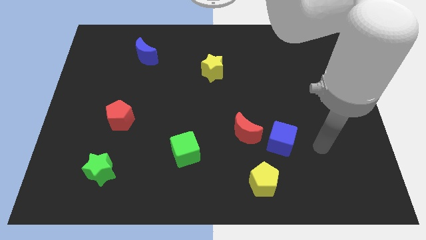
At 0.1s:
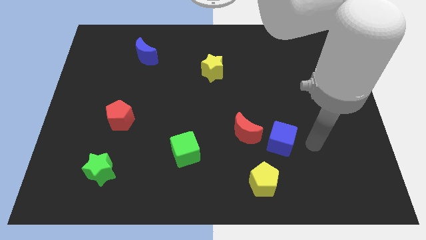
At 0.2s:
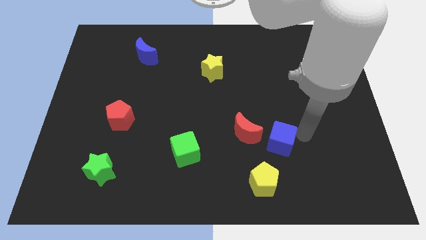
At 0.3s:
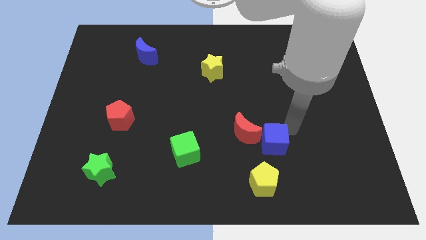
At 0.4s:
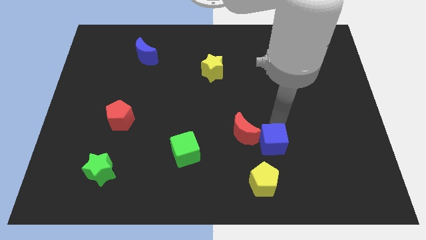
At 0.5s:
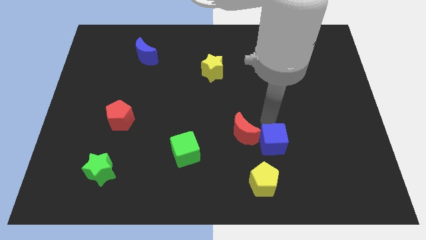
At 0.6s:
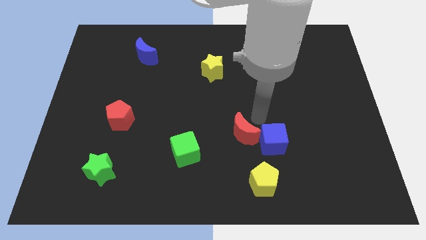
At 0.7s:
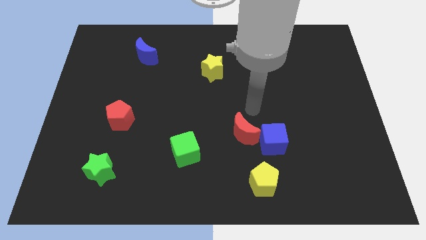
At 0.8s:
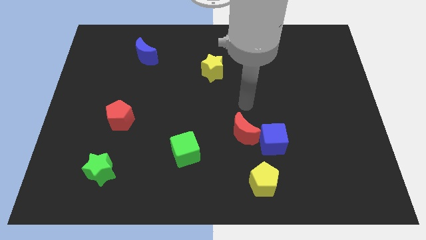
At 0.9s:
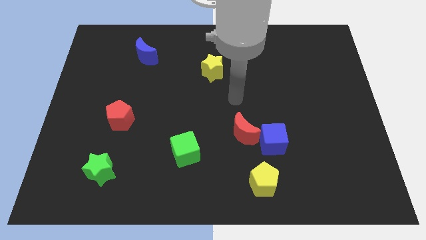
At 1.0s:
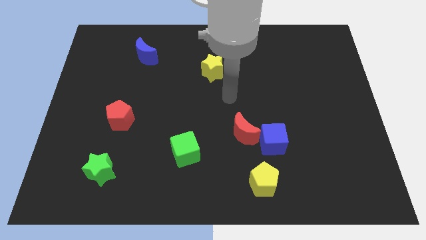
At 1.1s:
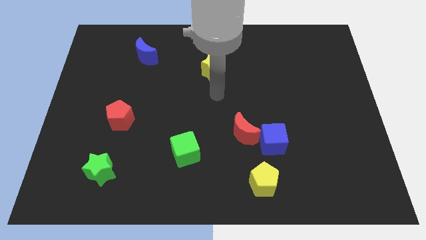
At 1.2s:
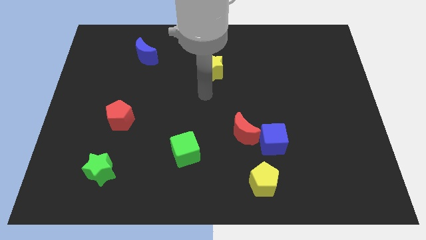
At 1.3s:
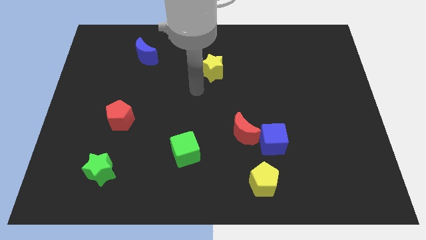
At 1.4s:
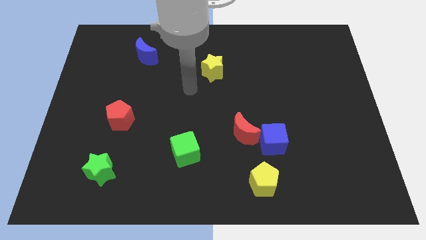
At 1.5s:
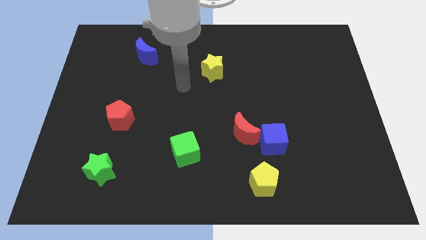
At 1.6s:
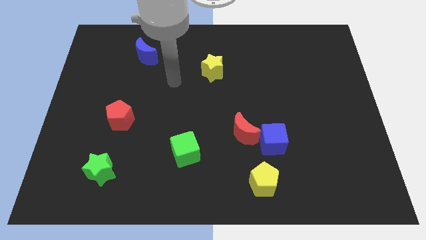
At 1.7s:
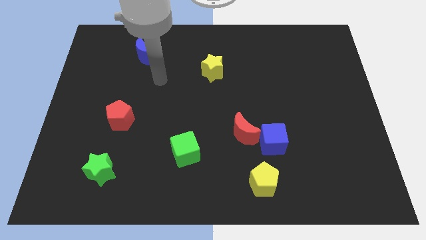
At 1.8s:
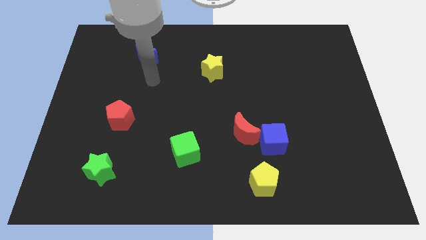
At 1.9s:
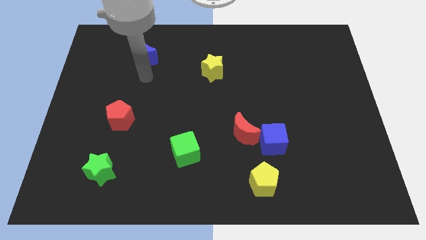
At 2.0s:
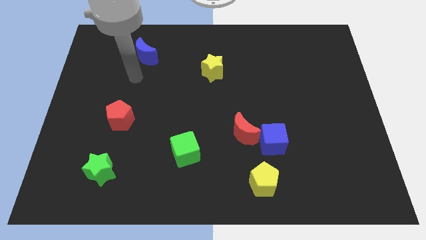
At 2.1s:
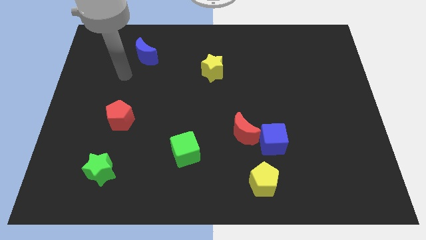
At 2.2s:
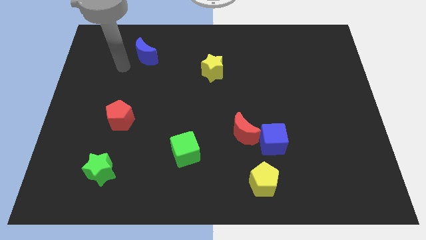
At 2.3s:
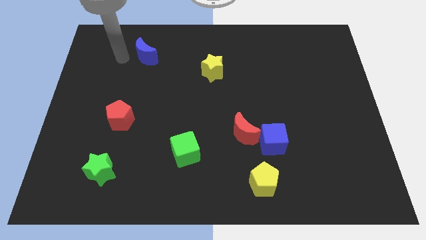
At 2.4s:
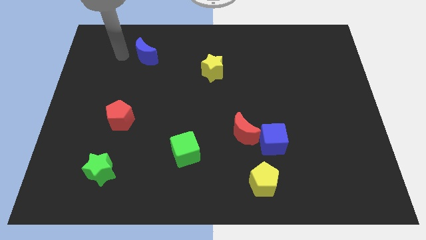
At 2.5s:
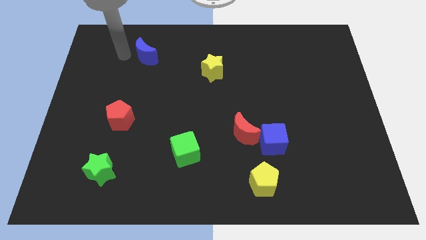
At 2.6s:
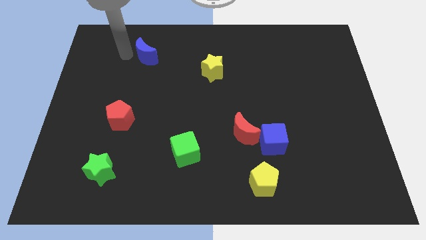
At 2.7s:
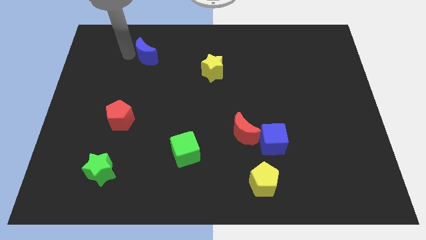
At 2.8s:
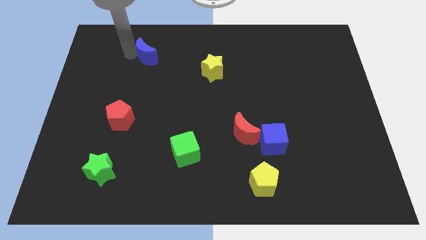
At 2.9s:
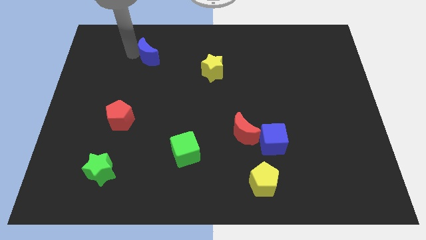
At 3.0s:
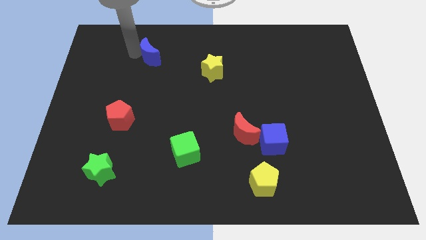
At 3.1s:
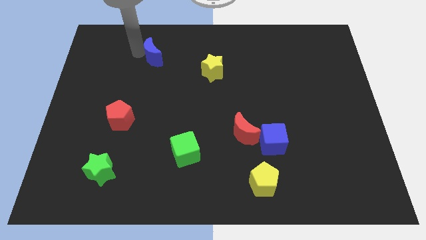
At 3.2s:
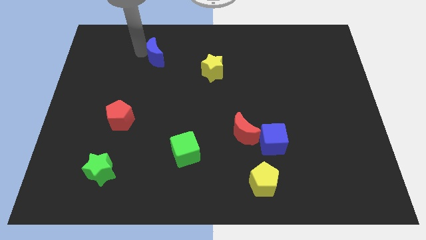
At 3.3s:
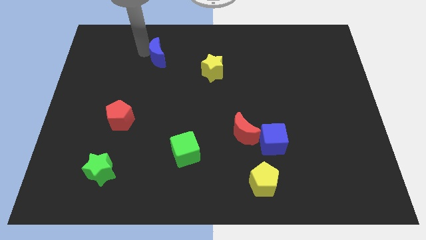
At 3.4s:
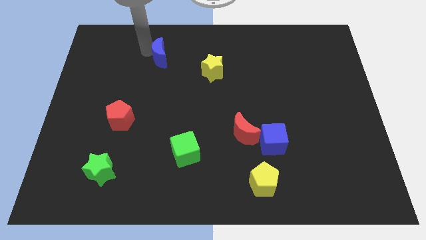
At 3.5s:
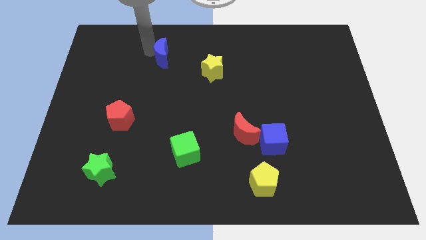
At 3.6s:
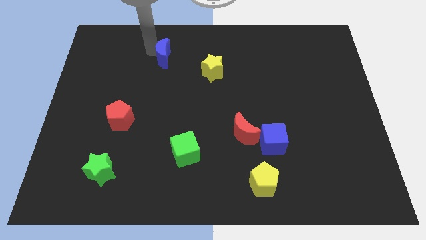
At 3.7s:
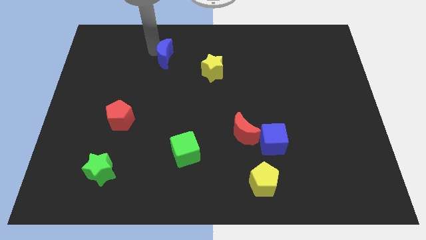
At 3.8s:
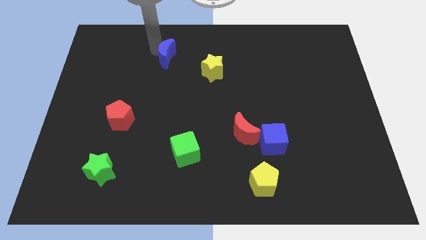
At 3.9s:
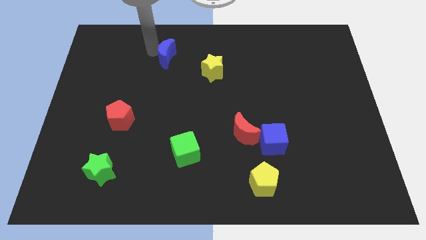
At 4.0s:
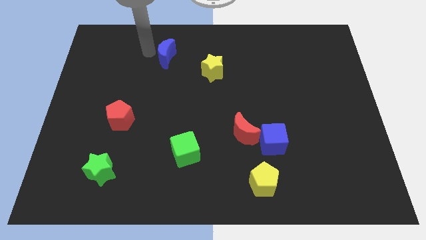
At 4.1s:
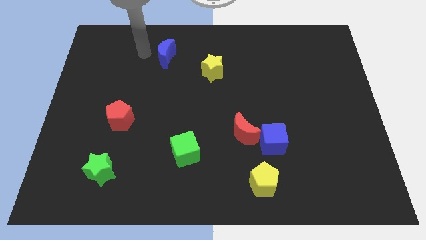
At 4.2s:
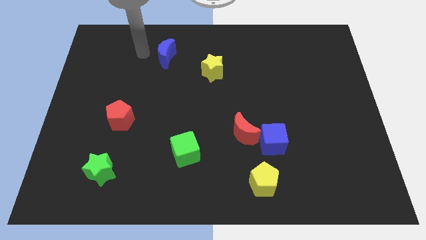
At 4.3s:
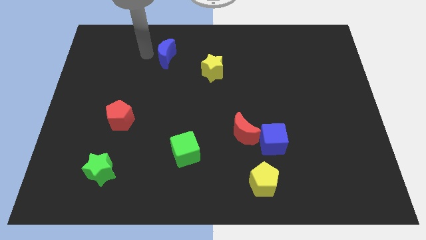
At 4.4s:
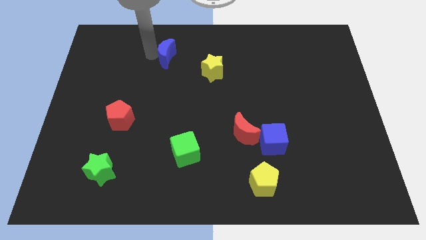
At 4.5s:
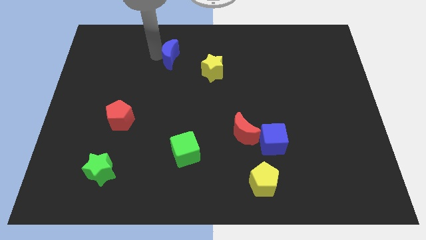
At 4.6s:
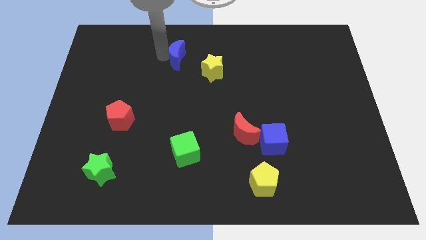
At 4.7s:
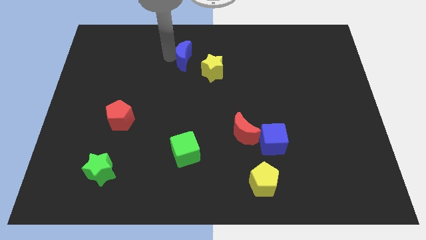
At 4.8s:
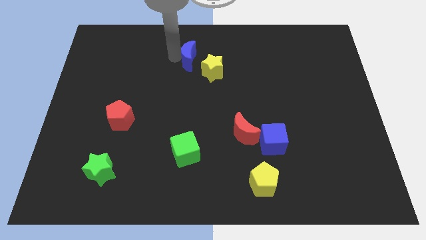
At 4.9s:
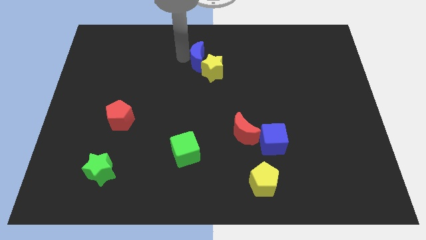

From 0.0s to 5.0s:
slide the blue moon next to the yellow star

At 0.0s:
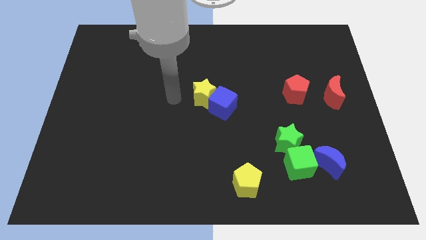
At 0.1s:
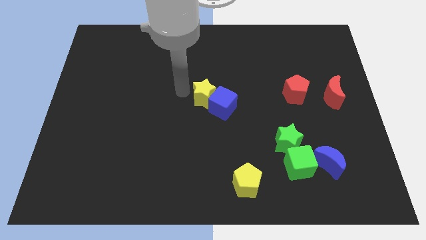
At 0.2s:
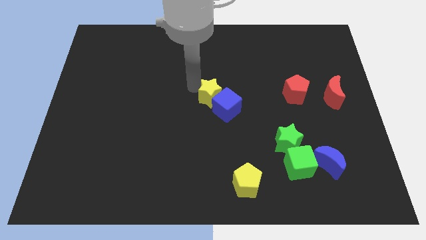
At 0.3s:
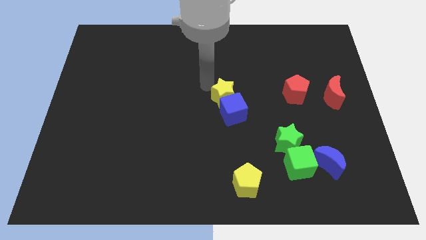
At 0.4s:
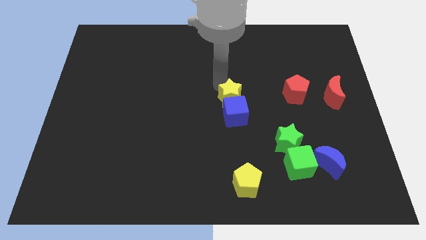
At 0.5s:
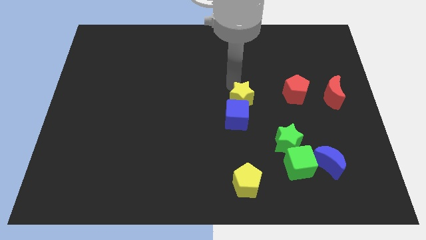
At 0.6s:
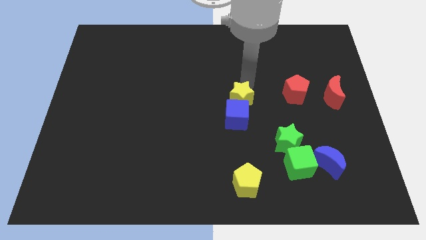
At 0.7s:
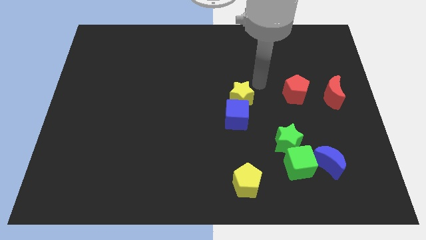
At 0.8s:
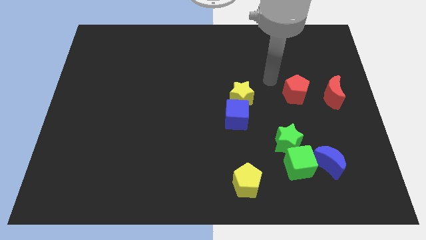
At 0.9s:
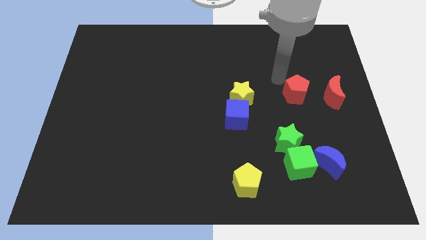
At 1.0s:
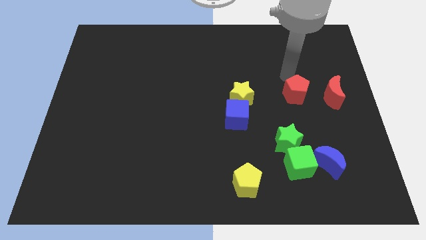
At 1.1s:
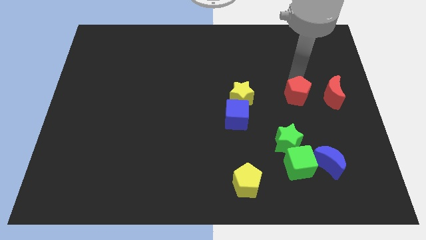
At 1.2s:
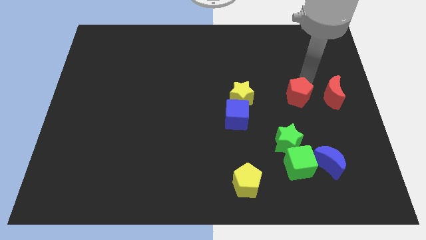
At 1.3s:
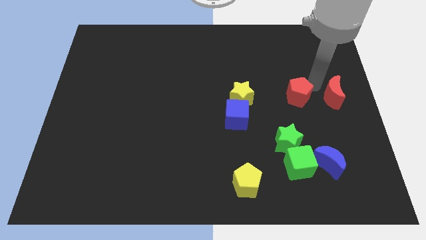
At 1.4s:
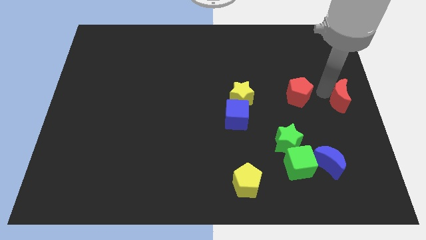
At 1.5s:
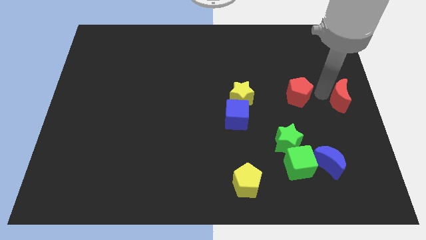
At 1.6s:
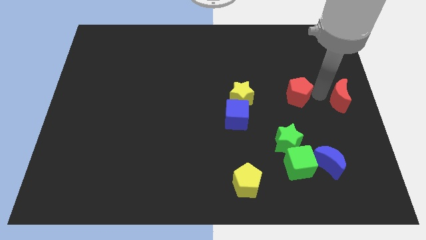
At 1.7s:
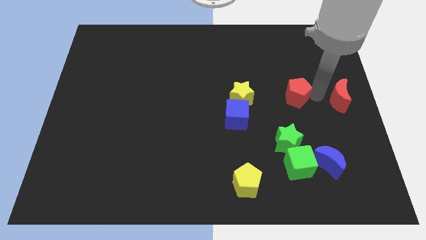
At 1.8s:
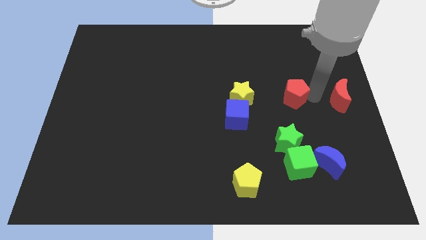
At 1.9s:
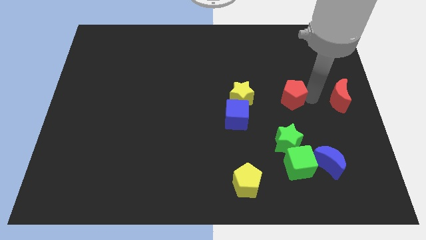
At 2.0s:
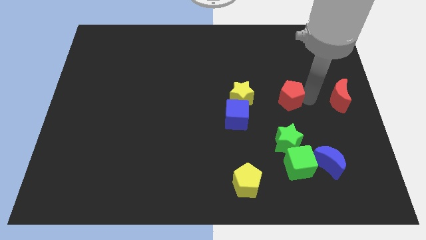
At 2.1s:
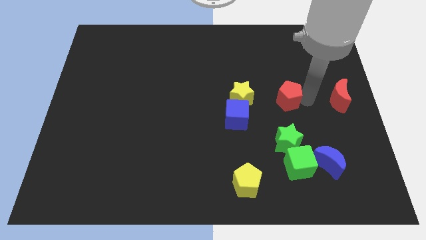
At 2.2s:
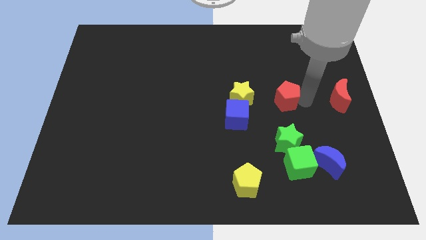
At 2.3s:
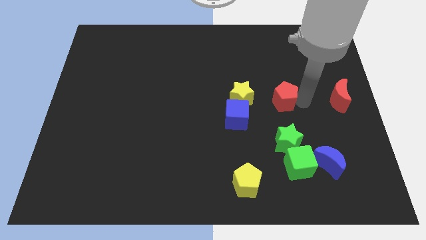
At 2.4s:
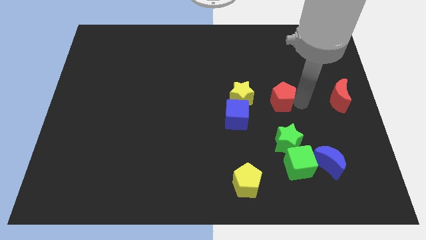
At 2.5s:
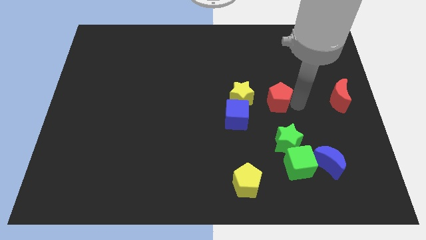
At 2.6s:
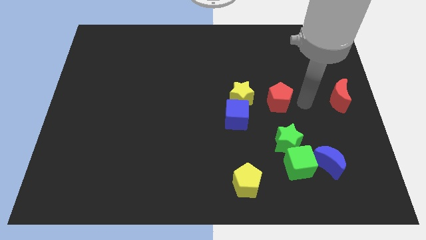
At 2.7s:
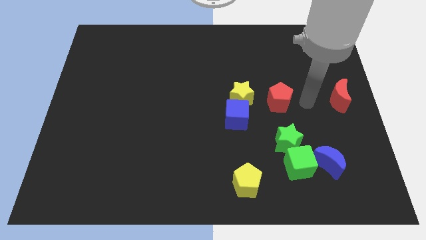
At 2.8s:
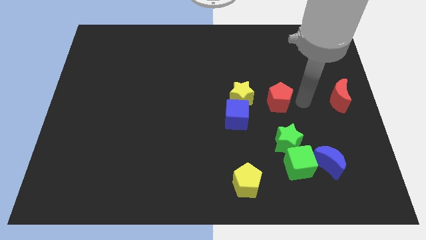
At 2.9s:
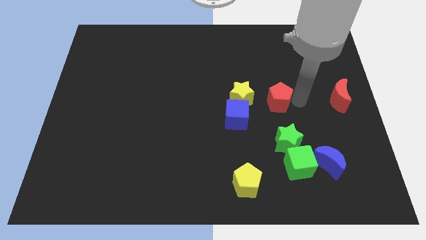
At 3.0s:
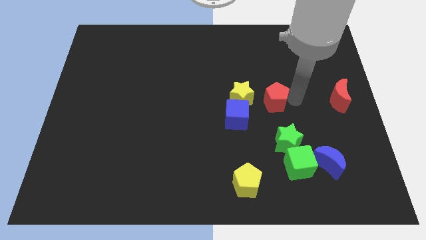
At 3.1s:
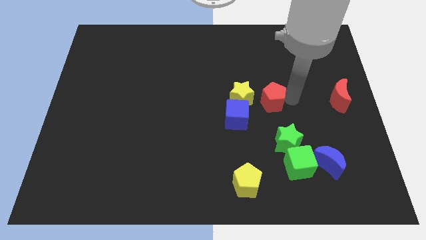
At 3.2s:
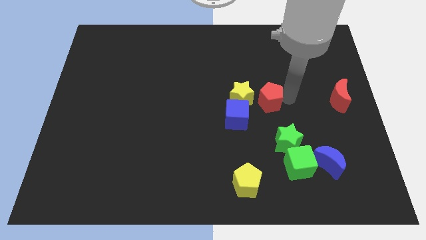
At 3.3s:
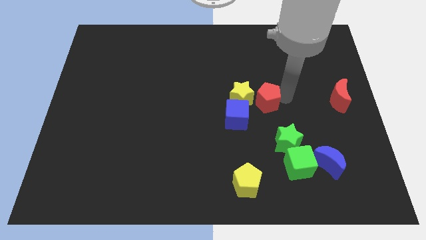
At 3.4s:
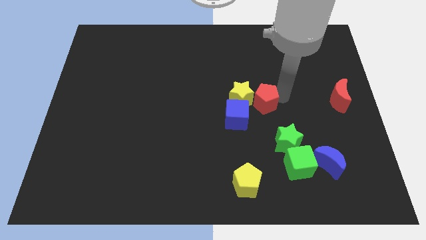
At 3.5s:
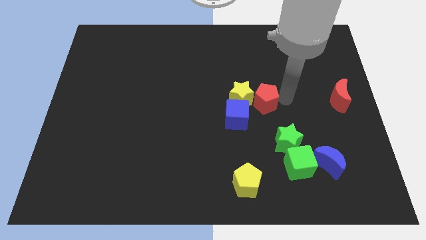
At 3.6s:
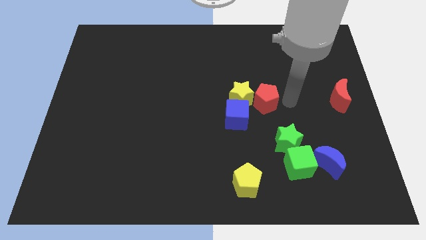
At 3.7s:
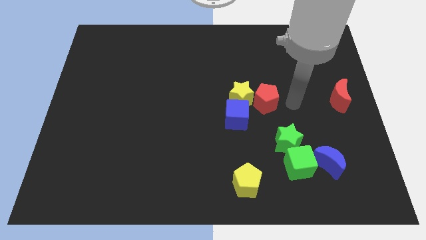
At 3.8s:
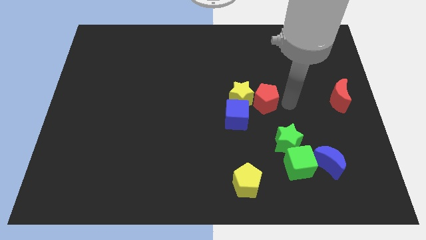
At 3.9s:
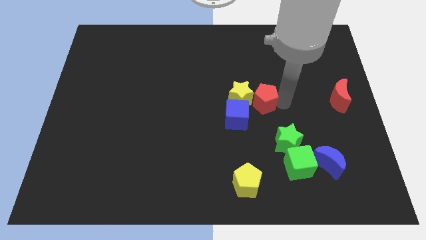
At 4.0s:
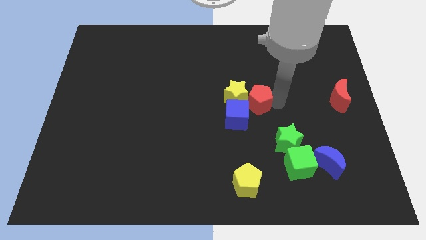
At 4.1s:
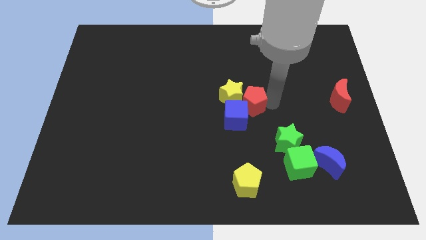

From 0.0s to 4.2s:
slide the red pentagon close to the blue cube
